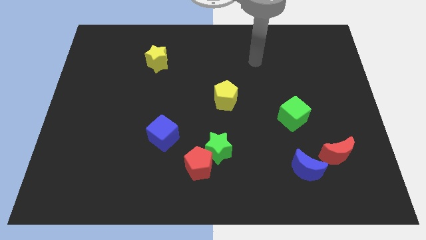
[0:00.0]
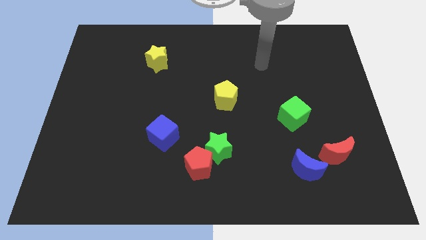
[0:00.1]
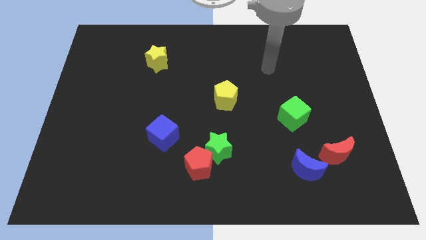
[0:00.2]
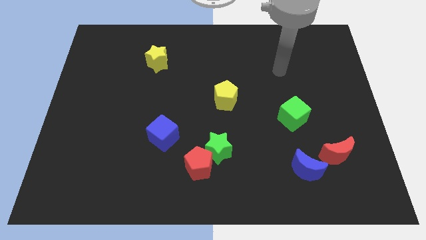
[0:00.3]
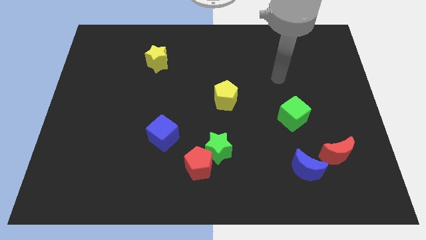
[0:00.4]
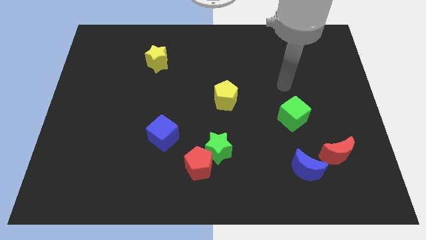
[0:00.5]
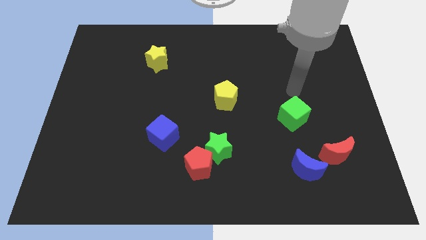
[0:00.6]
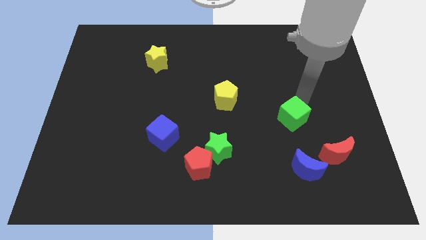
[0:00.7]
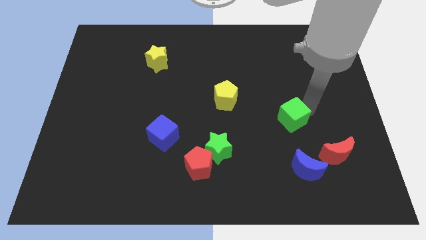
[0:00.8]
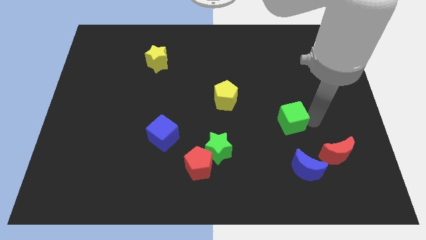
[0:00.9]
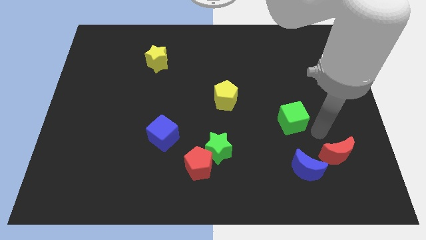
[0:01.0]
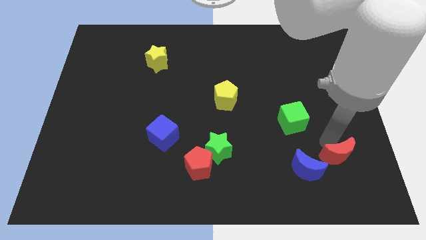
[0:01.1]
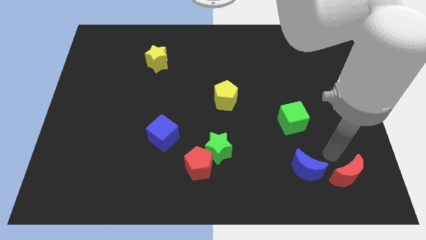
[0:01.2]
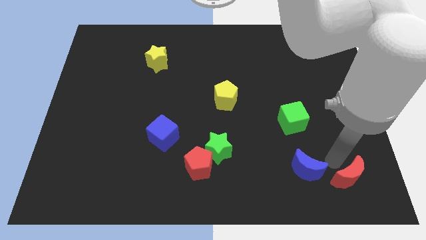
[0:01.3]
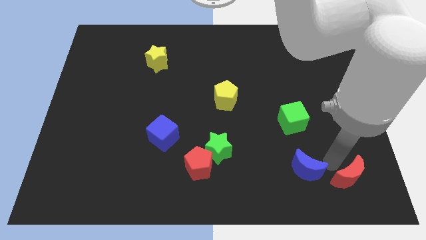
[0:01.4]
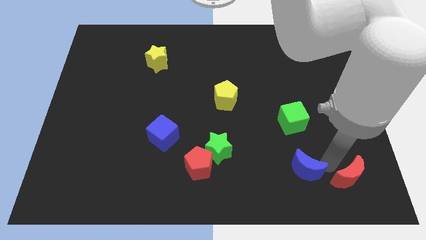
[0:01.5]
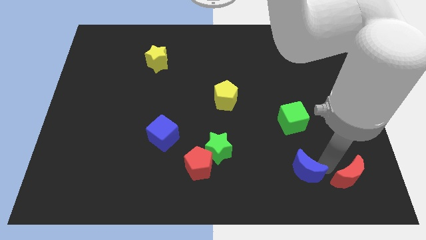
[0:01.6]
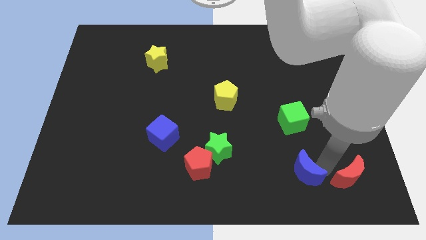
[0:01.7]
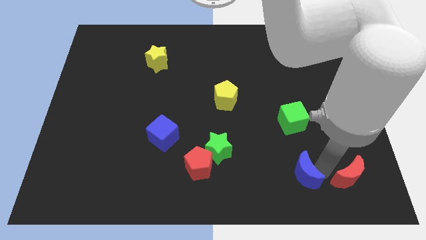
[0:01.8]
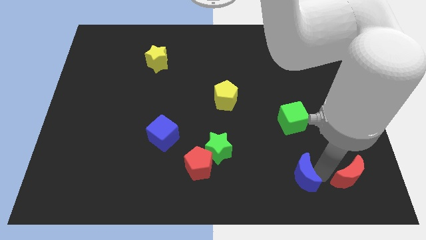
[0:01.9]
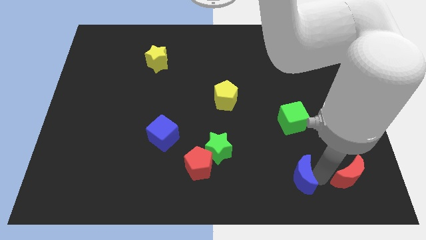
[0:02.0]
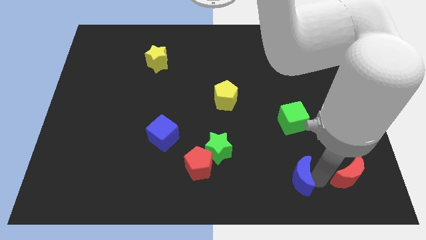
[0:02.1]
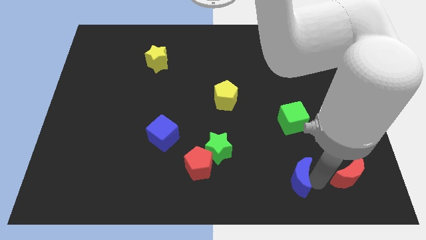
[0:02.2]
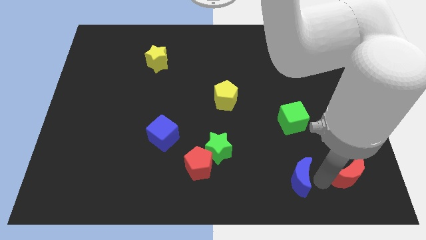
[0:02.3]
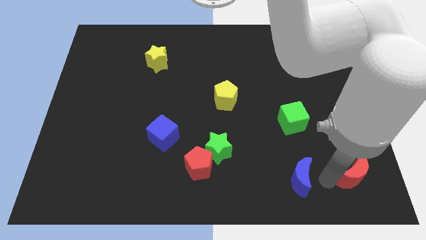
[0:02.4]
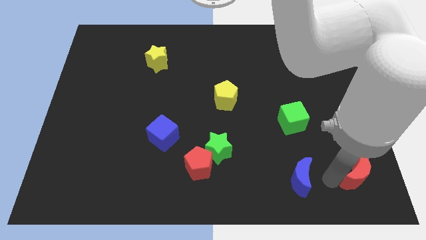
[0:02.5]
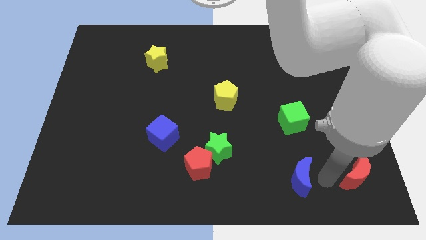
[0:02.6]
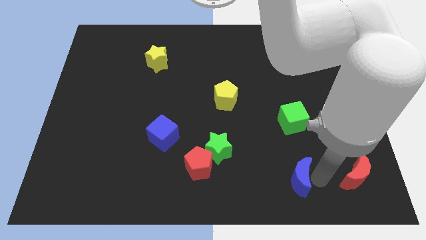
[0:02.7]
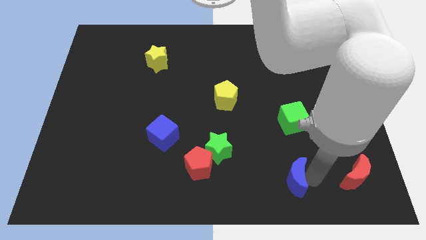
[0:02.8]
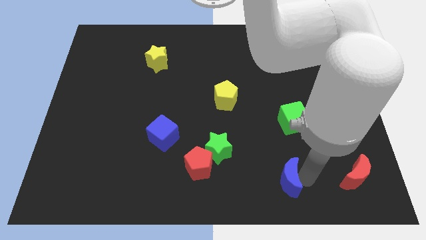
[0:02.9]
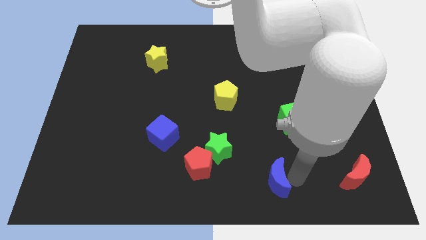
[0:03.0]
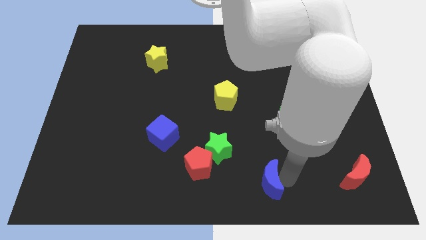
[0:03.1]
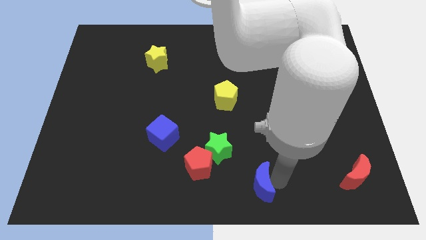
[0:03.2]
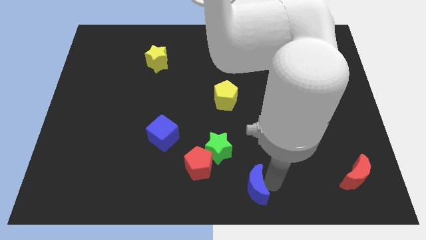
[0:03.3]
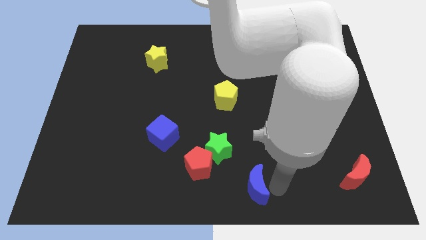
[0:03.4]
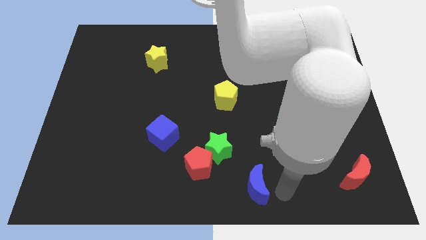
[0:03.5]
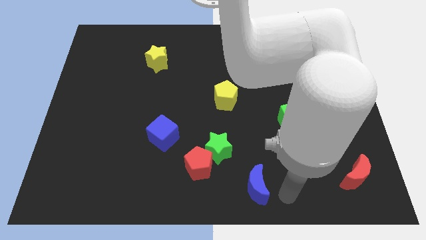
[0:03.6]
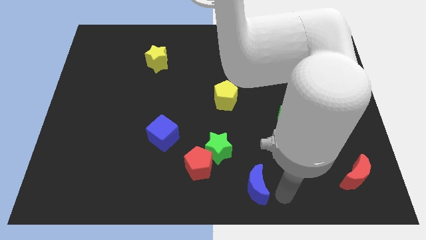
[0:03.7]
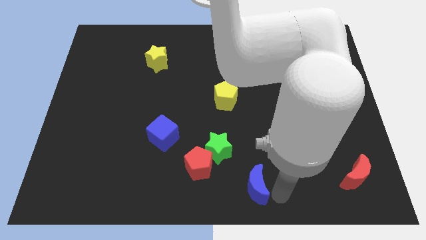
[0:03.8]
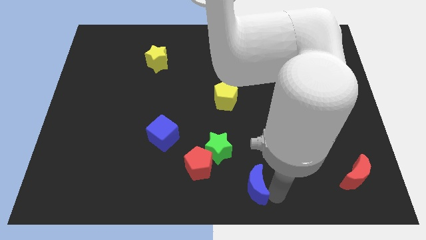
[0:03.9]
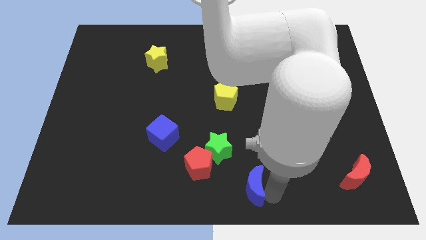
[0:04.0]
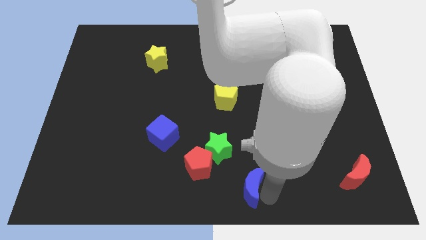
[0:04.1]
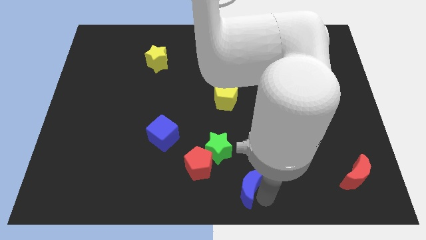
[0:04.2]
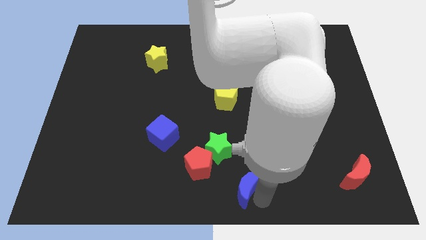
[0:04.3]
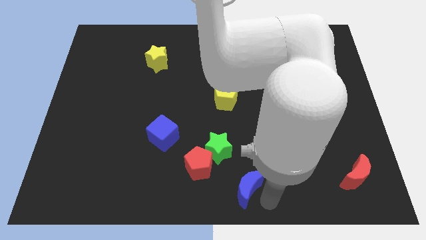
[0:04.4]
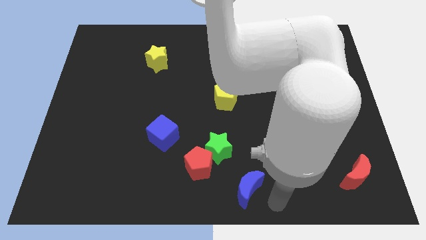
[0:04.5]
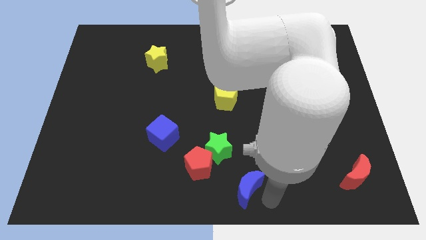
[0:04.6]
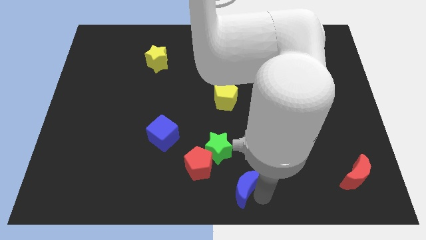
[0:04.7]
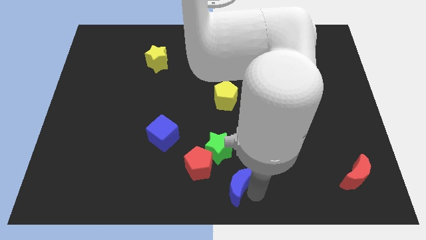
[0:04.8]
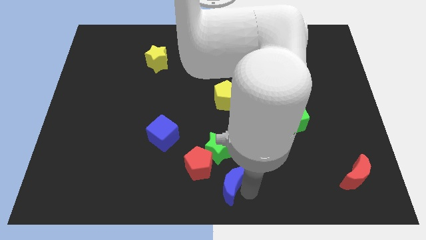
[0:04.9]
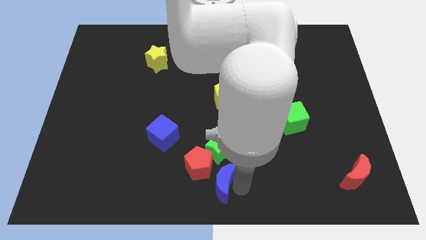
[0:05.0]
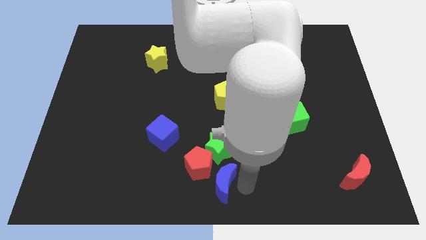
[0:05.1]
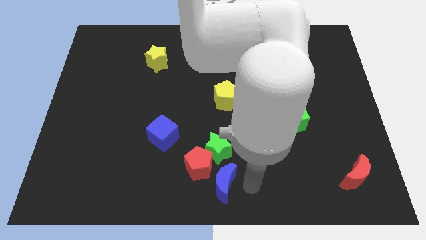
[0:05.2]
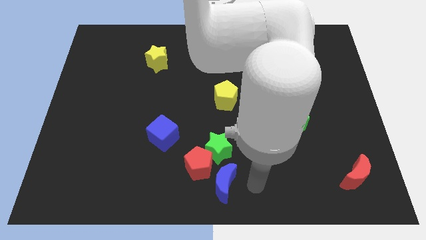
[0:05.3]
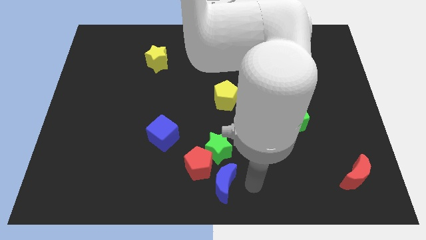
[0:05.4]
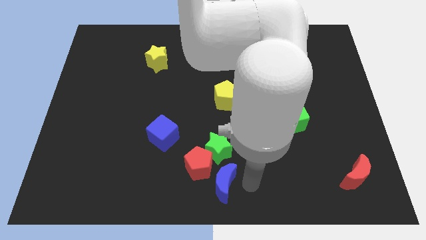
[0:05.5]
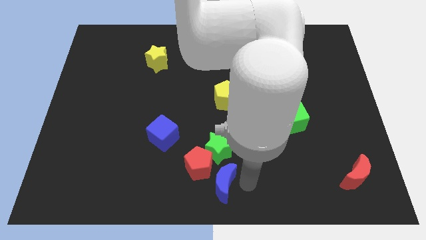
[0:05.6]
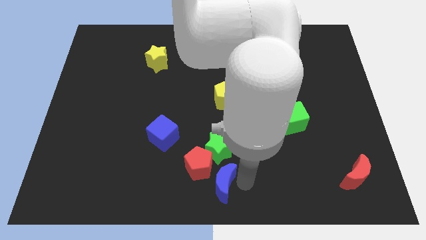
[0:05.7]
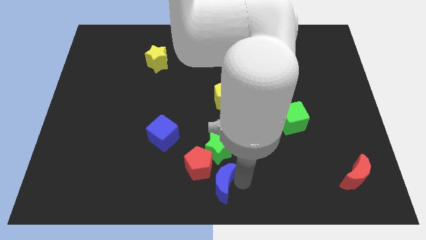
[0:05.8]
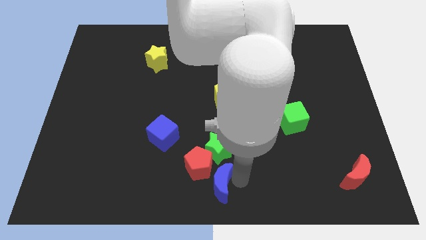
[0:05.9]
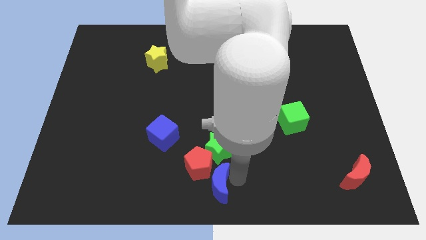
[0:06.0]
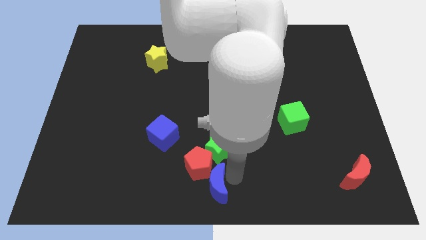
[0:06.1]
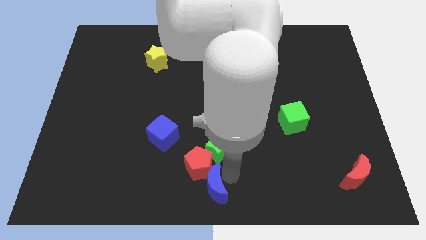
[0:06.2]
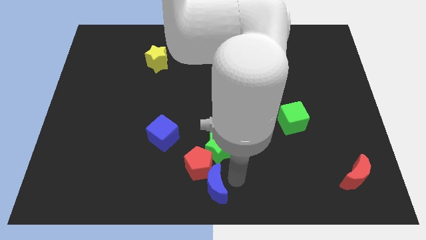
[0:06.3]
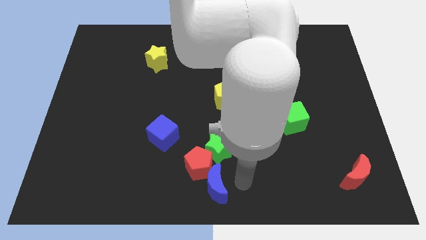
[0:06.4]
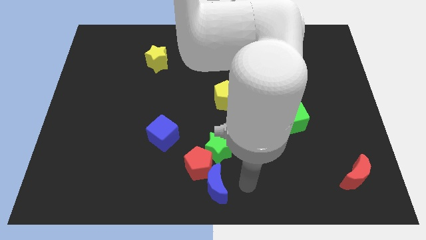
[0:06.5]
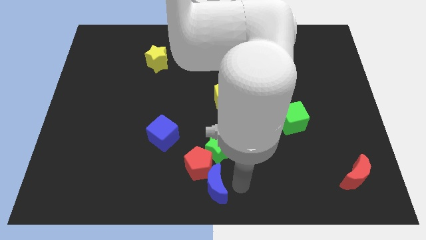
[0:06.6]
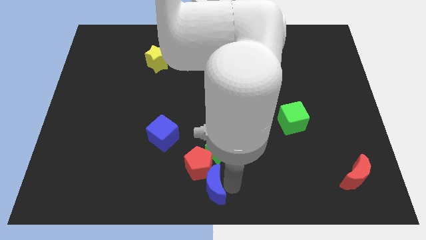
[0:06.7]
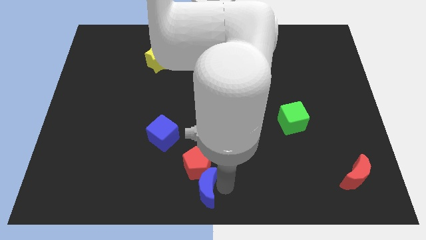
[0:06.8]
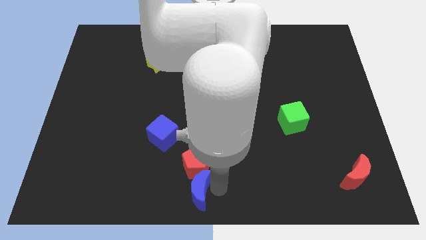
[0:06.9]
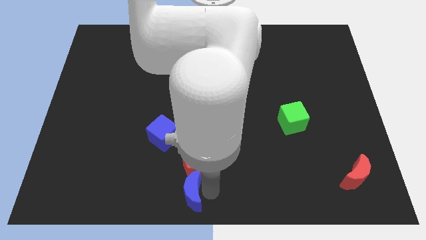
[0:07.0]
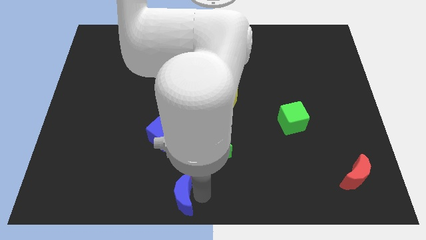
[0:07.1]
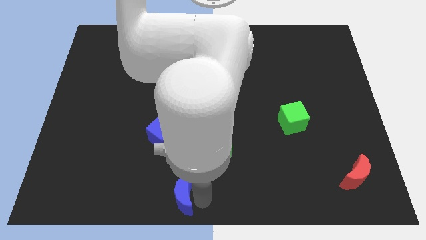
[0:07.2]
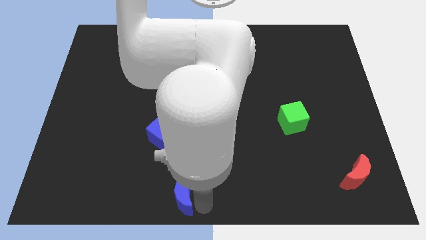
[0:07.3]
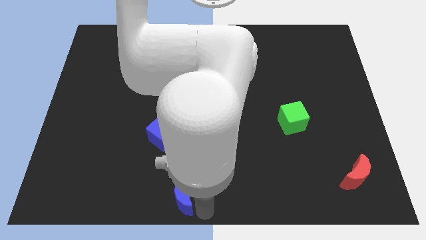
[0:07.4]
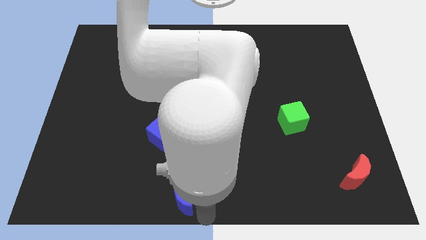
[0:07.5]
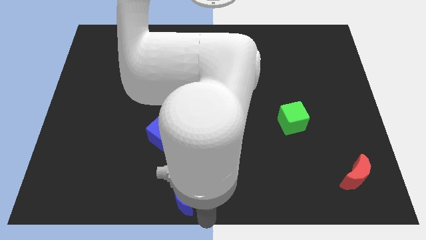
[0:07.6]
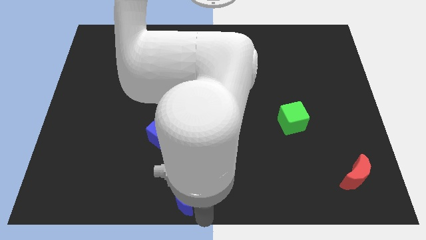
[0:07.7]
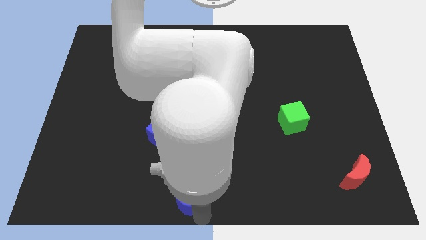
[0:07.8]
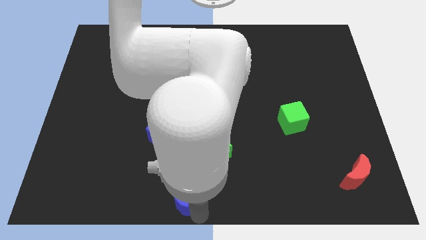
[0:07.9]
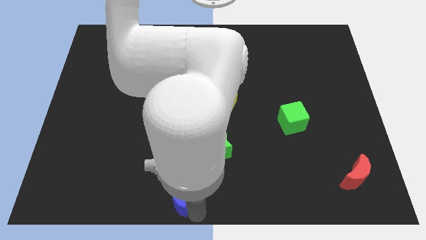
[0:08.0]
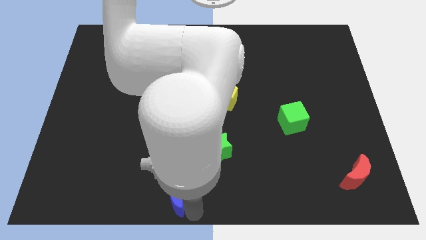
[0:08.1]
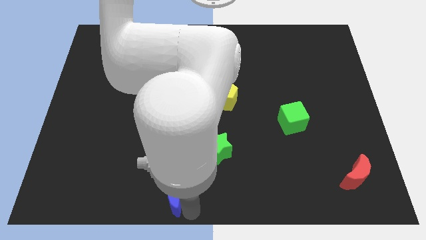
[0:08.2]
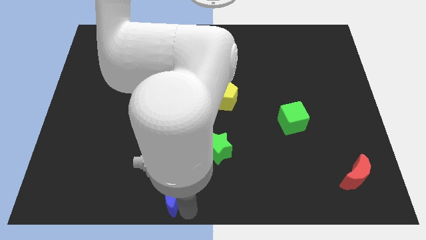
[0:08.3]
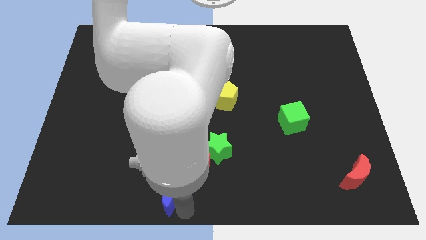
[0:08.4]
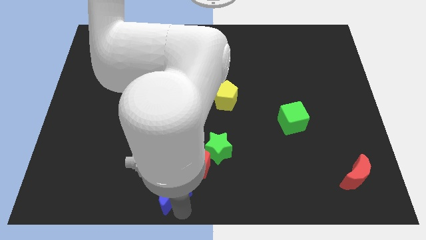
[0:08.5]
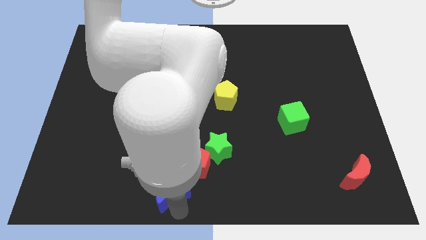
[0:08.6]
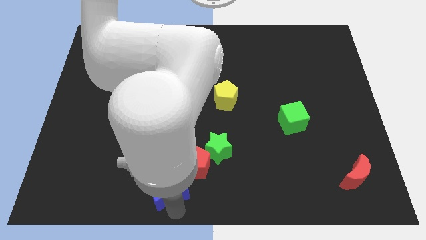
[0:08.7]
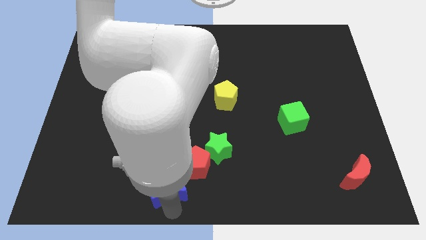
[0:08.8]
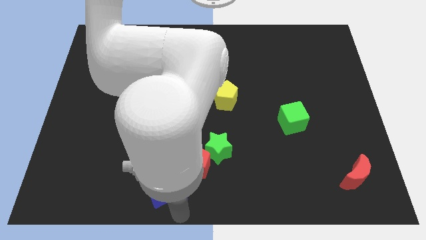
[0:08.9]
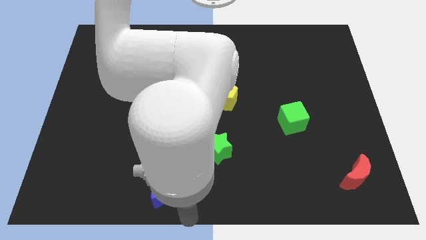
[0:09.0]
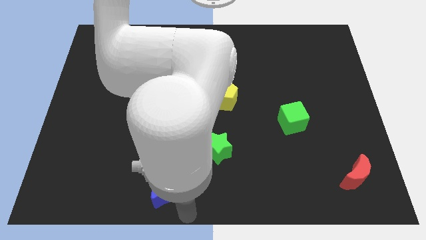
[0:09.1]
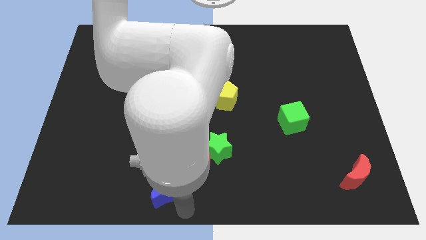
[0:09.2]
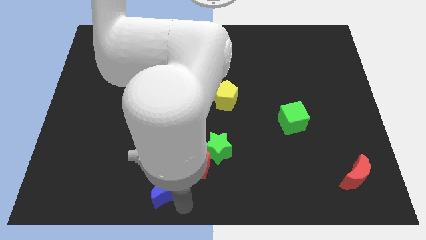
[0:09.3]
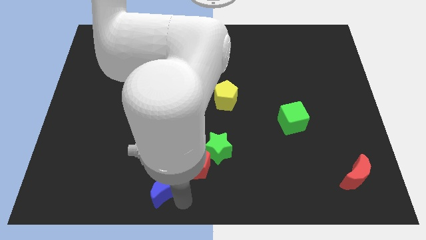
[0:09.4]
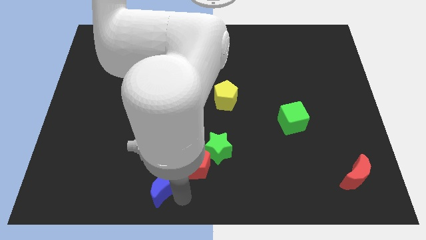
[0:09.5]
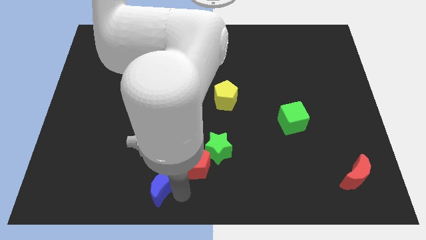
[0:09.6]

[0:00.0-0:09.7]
slide the blue moon to the left of the red pentagon
